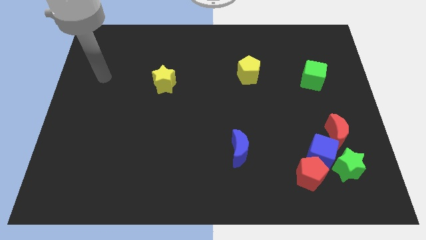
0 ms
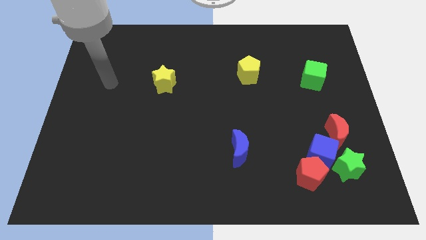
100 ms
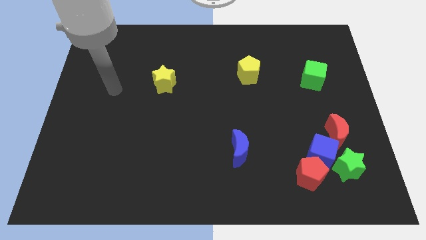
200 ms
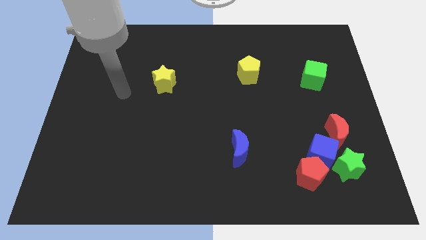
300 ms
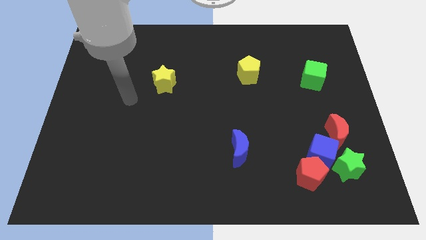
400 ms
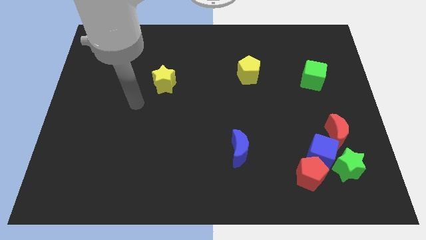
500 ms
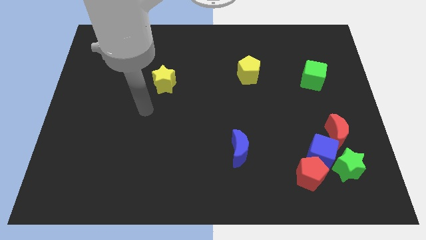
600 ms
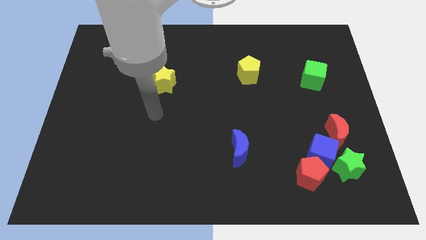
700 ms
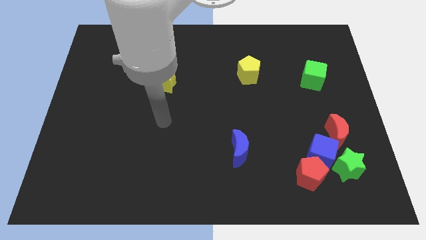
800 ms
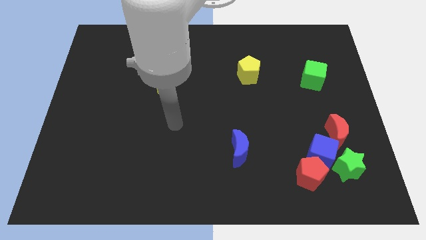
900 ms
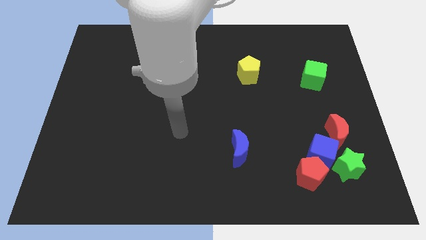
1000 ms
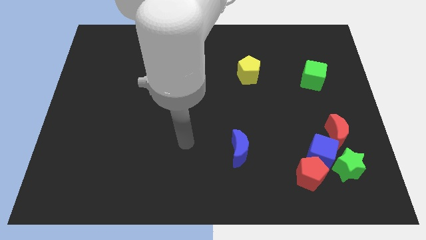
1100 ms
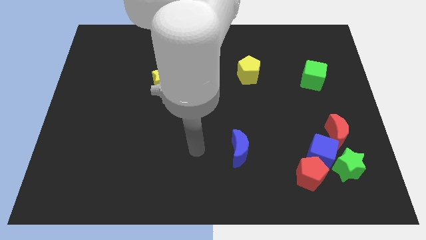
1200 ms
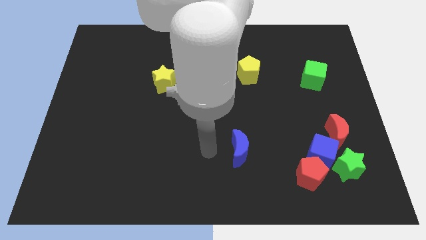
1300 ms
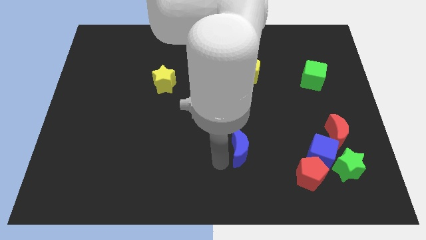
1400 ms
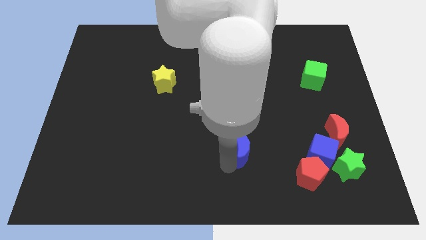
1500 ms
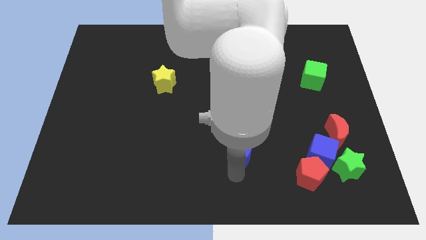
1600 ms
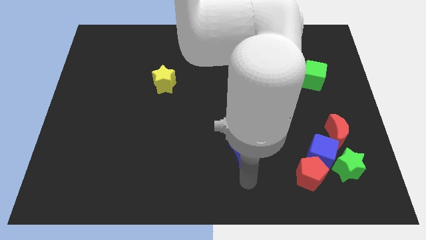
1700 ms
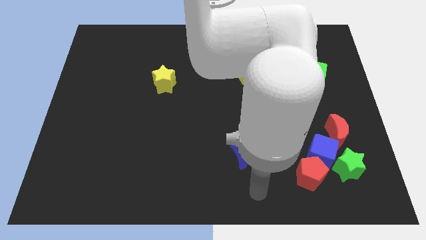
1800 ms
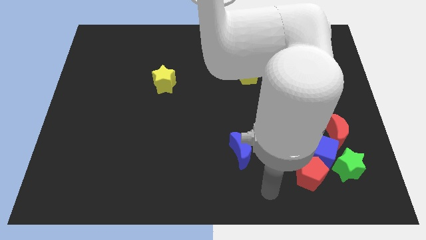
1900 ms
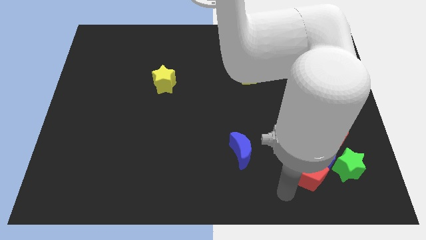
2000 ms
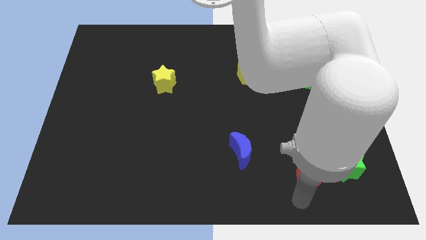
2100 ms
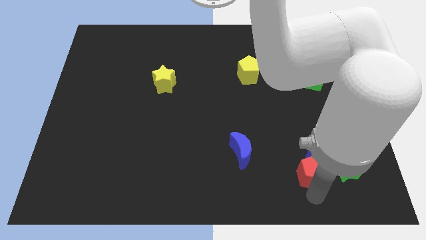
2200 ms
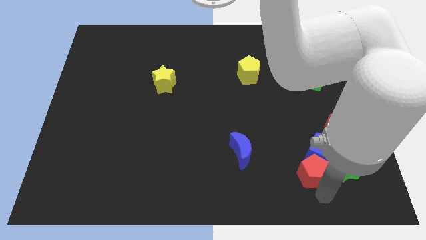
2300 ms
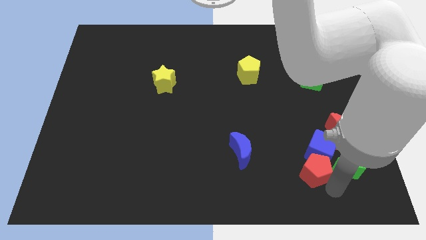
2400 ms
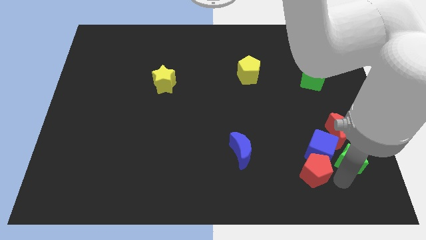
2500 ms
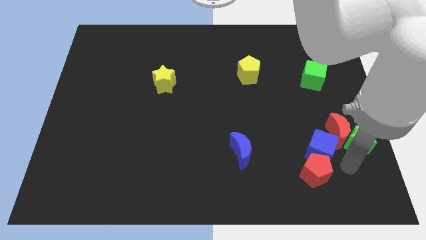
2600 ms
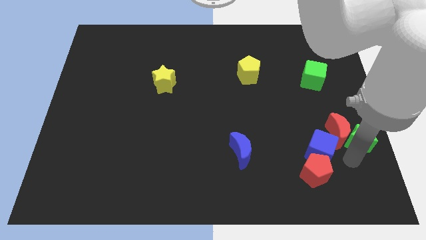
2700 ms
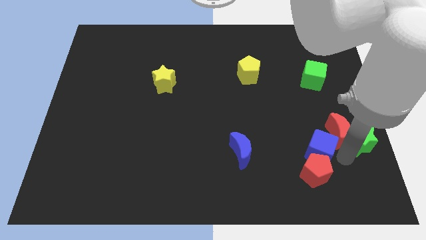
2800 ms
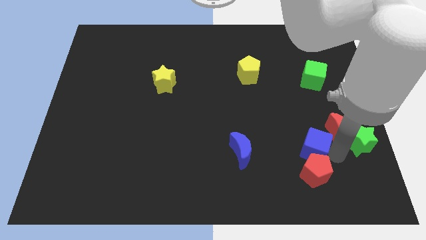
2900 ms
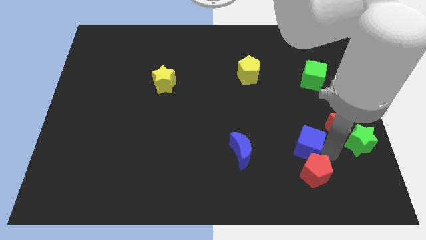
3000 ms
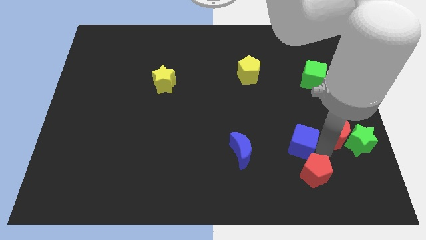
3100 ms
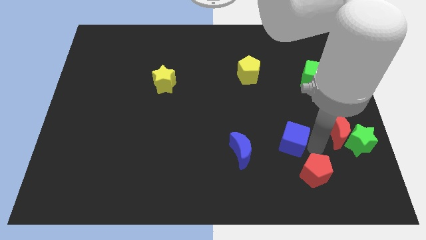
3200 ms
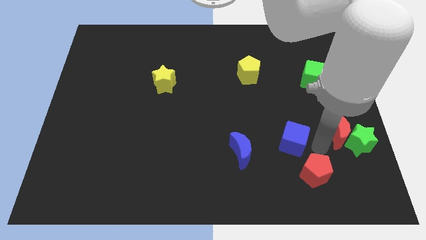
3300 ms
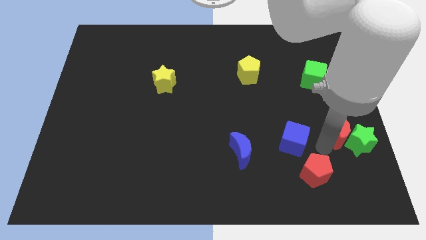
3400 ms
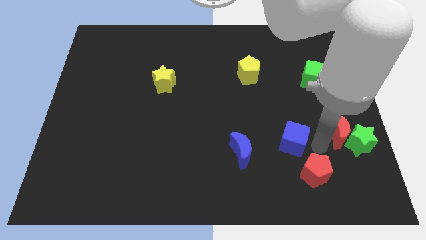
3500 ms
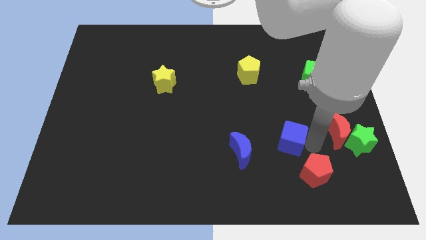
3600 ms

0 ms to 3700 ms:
move the blue cube away from the clump

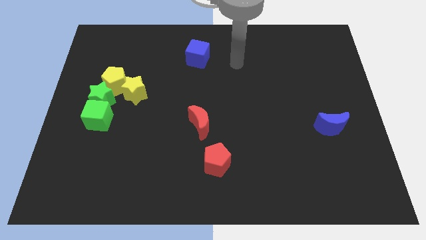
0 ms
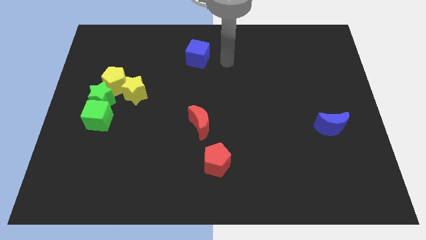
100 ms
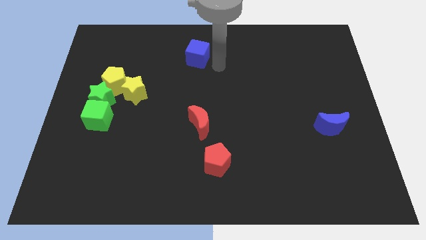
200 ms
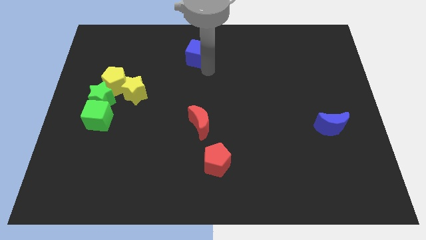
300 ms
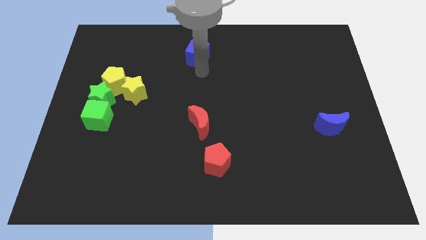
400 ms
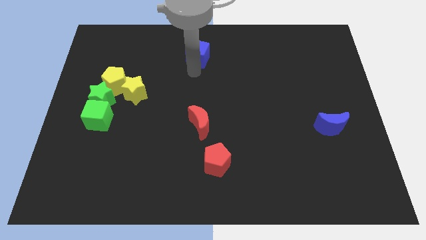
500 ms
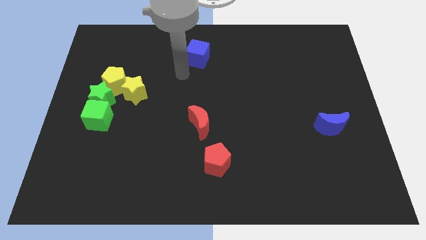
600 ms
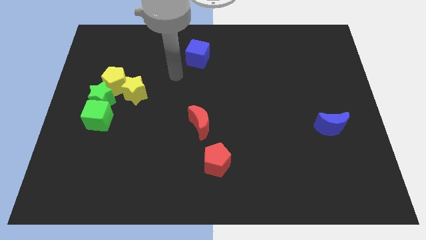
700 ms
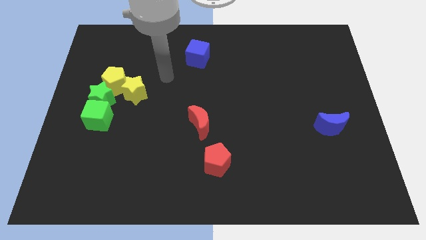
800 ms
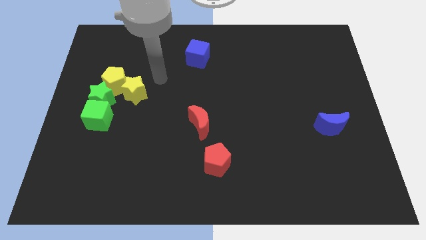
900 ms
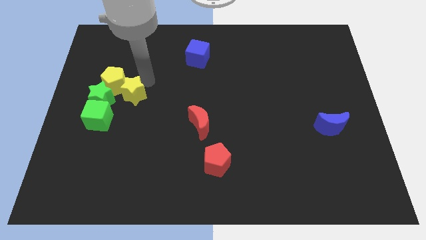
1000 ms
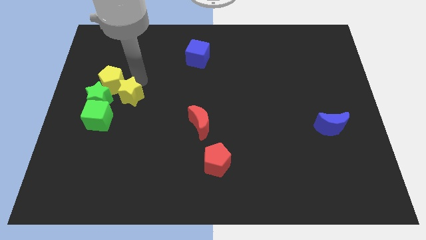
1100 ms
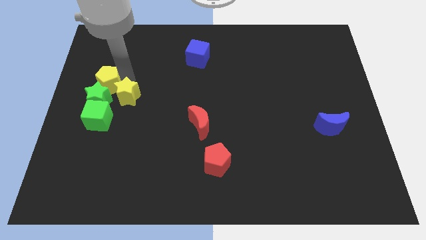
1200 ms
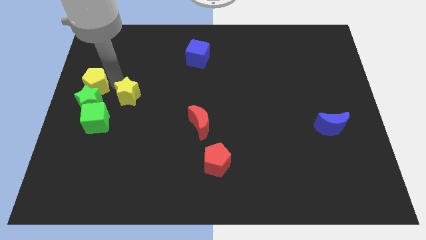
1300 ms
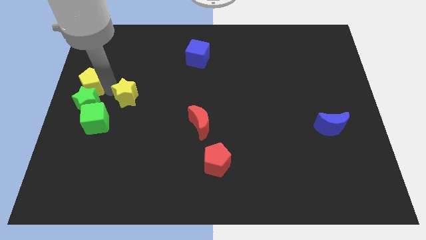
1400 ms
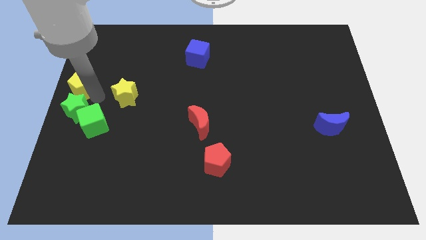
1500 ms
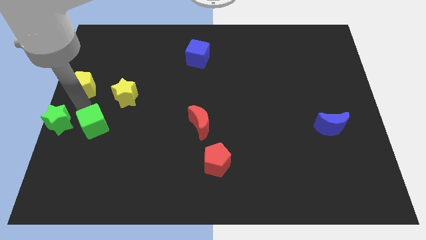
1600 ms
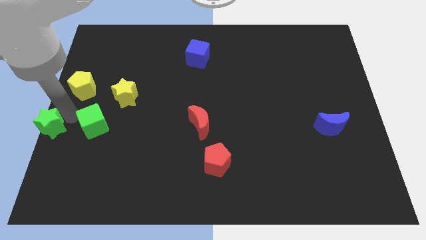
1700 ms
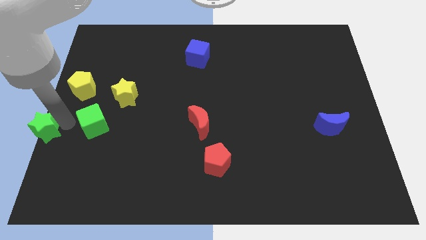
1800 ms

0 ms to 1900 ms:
move the green cube away from the green star

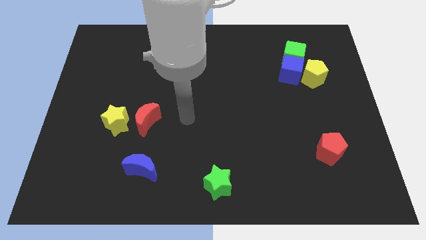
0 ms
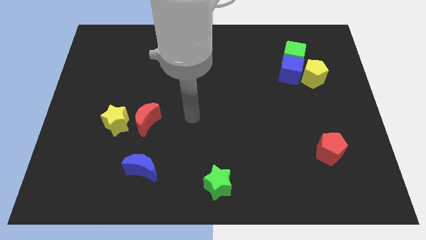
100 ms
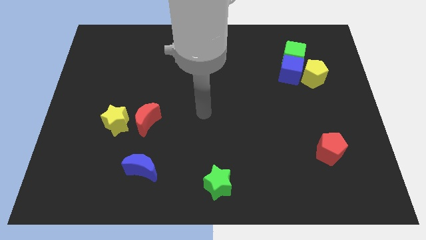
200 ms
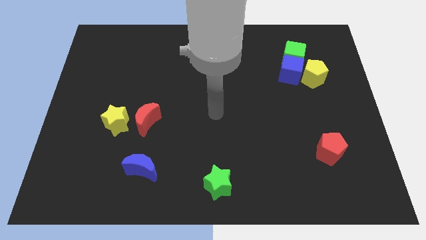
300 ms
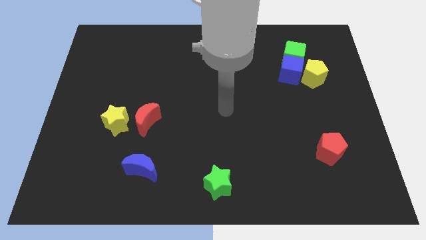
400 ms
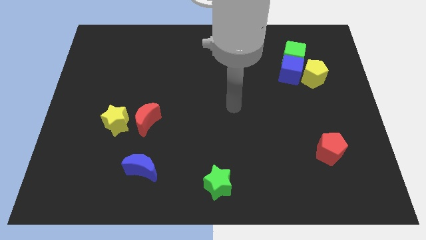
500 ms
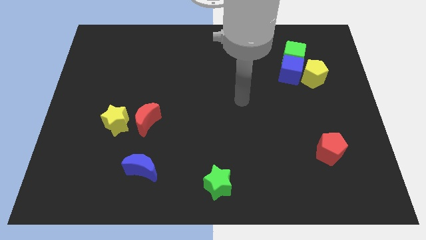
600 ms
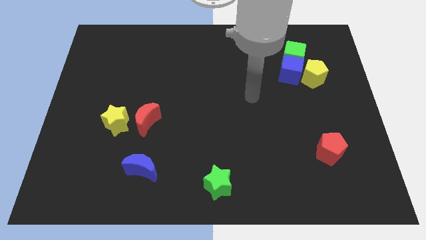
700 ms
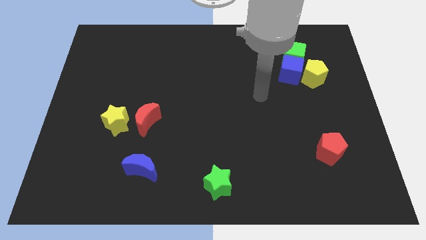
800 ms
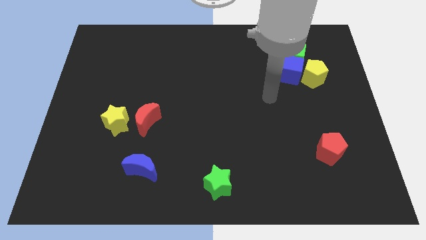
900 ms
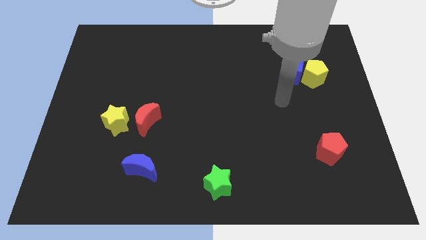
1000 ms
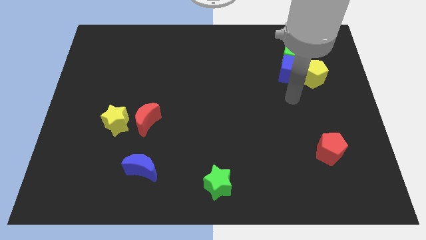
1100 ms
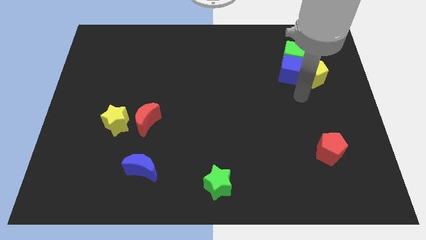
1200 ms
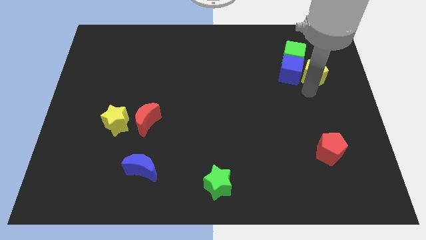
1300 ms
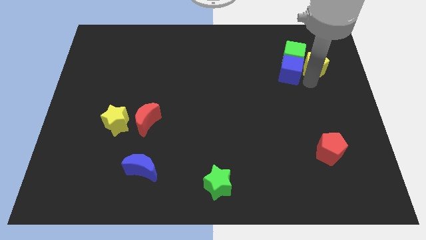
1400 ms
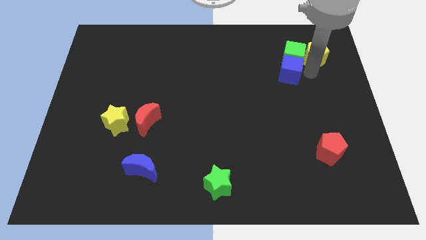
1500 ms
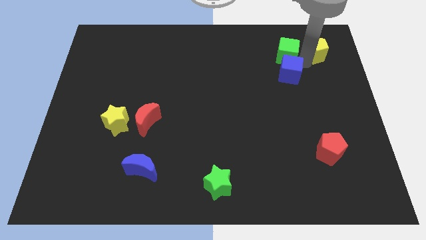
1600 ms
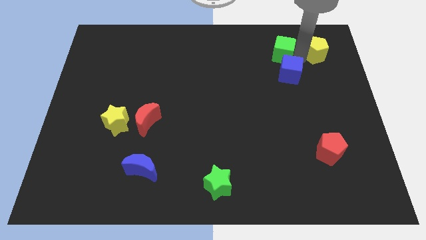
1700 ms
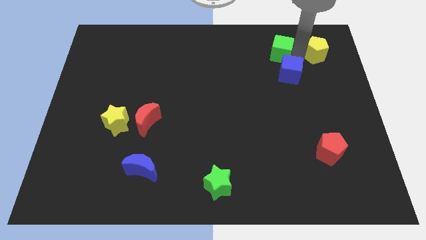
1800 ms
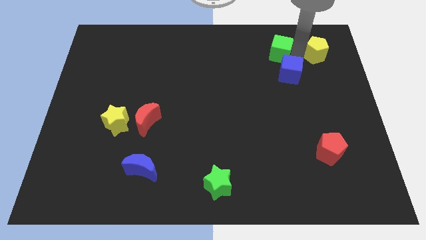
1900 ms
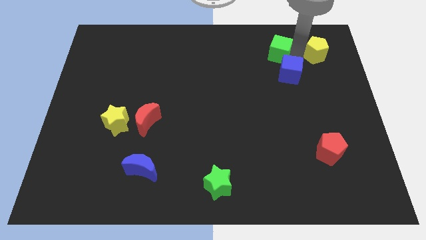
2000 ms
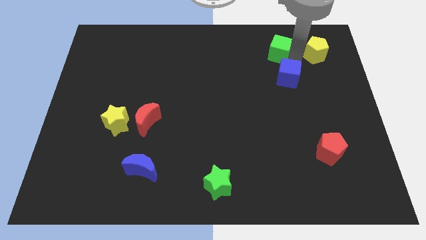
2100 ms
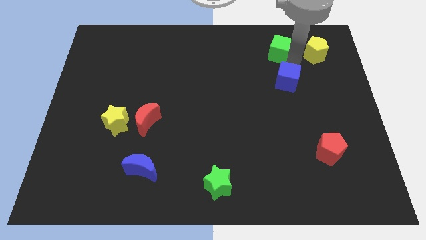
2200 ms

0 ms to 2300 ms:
separate the blue cube from the green cube and yellow pentagon

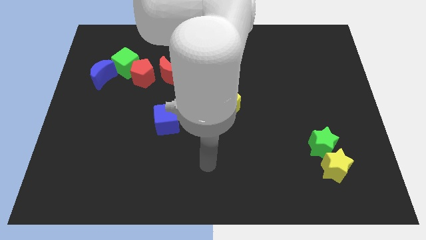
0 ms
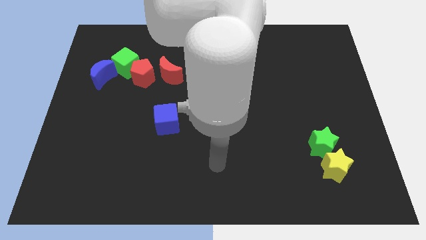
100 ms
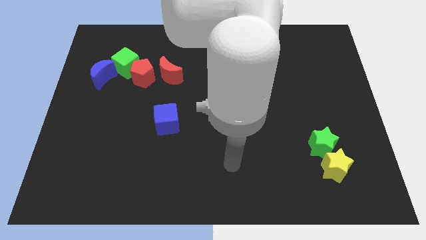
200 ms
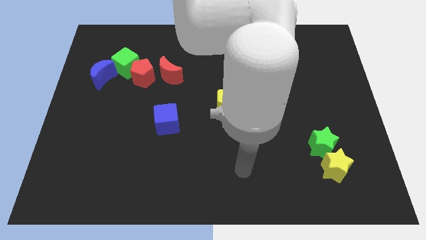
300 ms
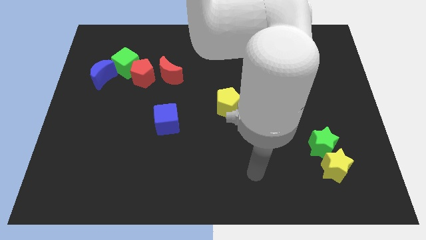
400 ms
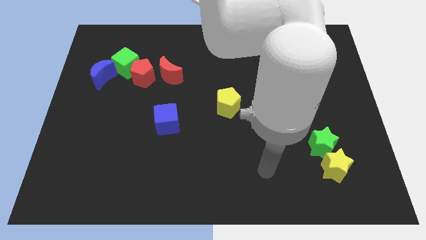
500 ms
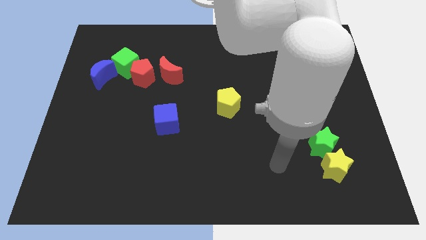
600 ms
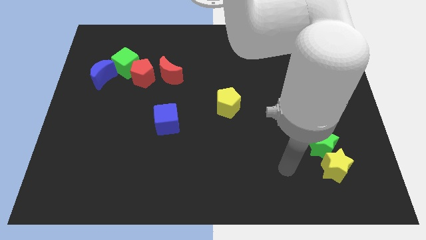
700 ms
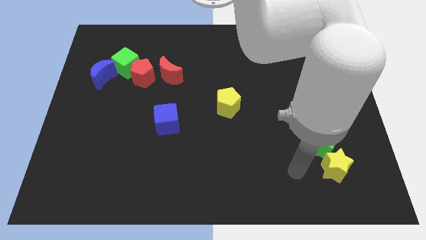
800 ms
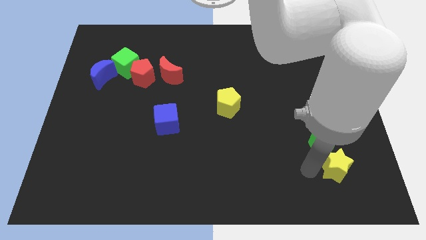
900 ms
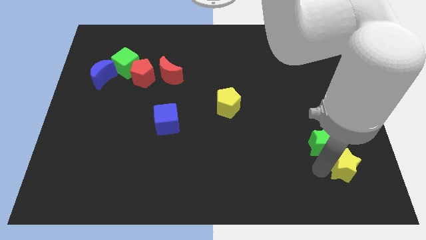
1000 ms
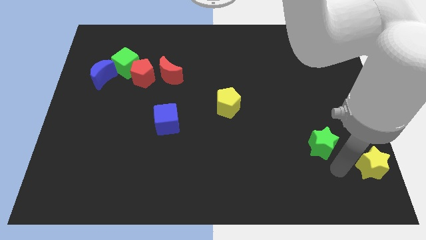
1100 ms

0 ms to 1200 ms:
move the green star away from the yellow star

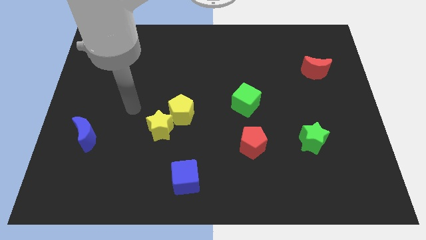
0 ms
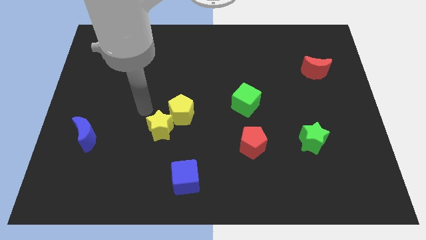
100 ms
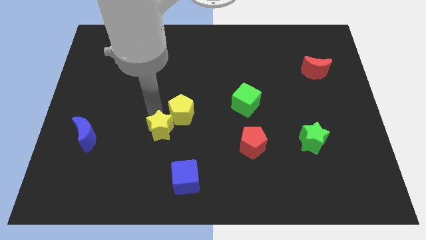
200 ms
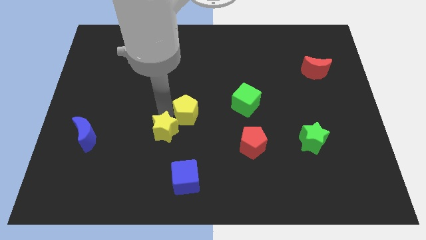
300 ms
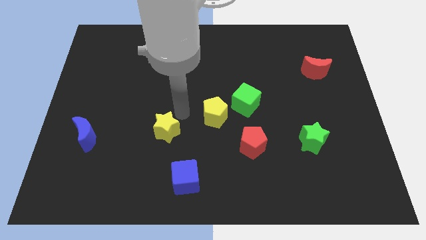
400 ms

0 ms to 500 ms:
move the yellow star away from the yellow pentagon
